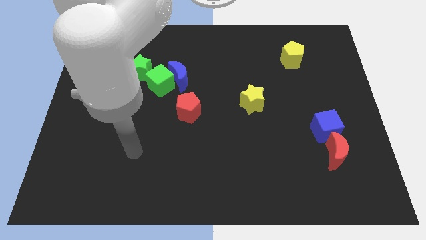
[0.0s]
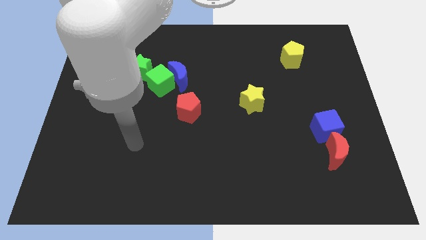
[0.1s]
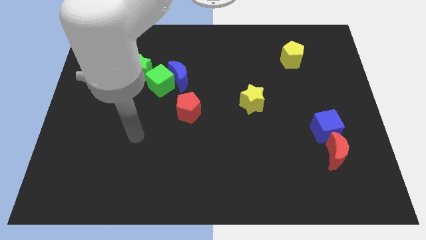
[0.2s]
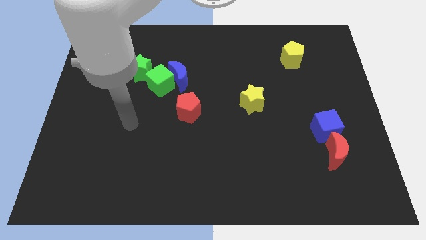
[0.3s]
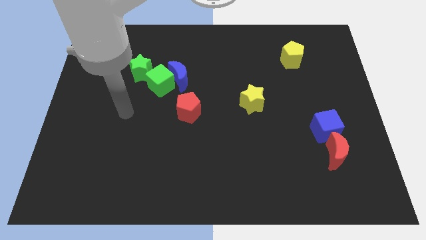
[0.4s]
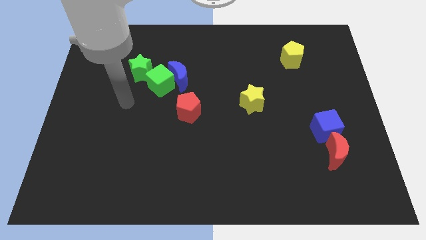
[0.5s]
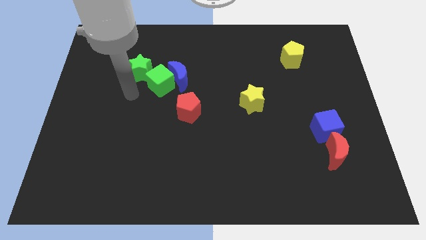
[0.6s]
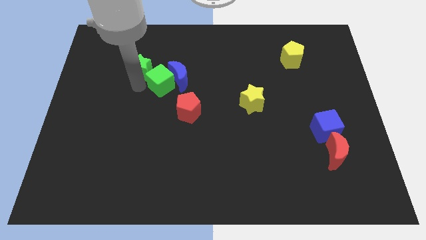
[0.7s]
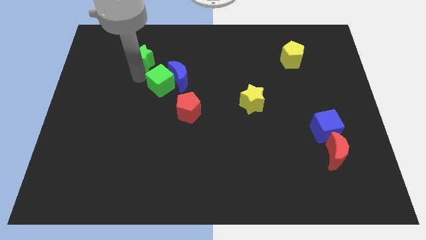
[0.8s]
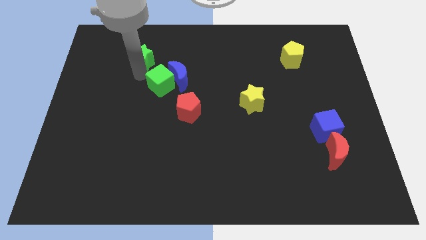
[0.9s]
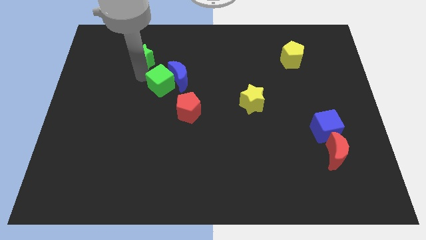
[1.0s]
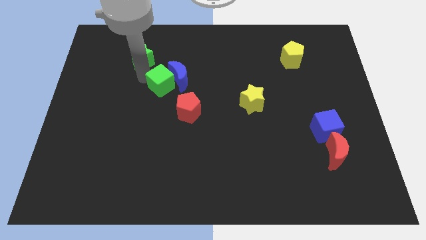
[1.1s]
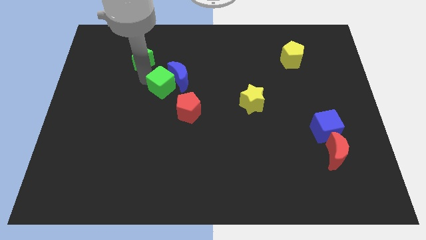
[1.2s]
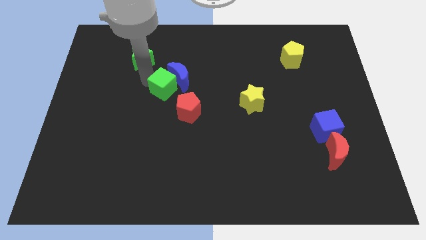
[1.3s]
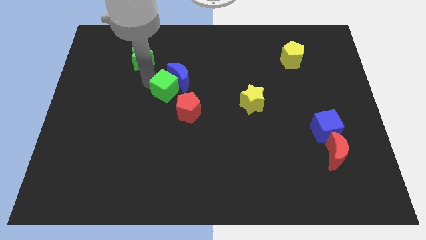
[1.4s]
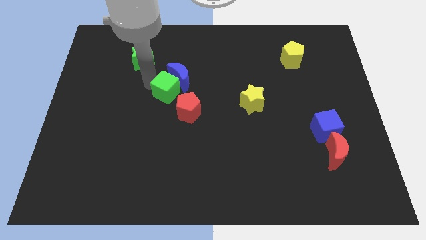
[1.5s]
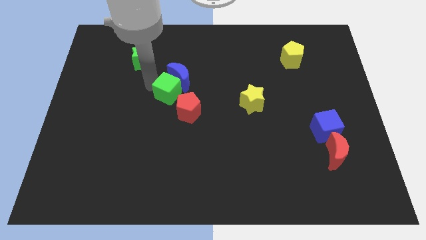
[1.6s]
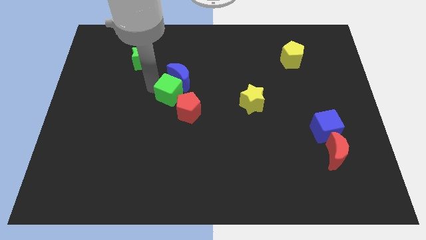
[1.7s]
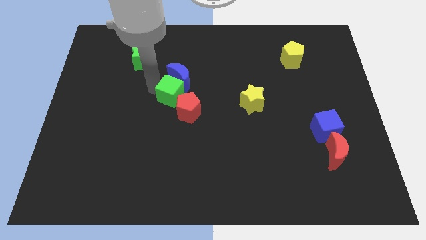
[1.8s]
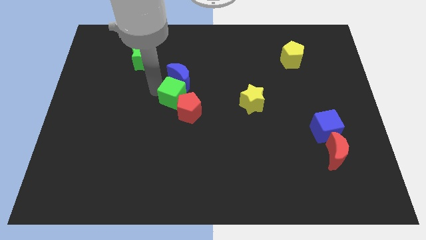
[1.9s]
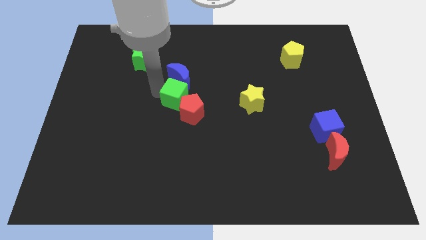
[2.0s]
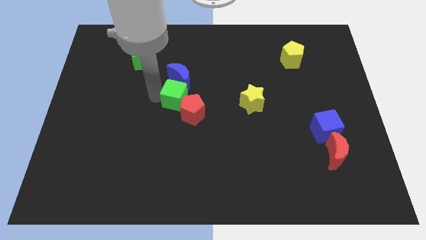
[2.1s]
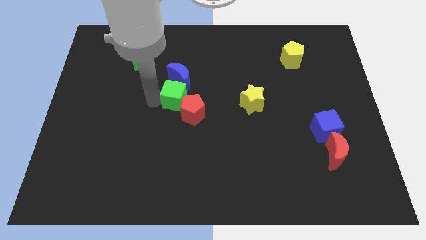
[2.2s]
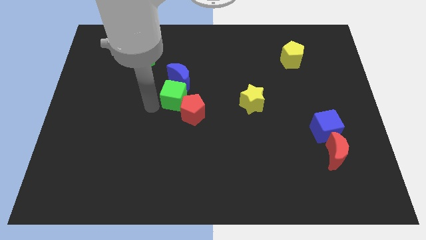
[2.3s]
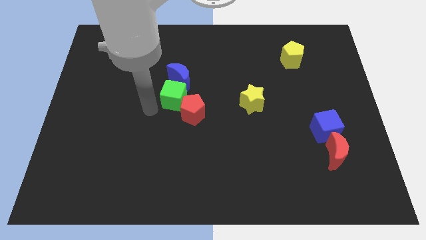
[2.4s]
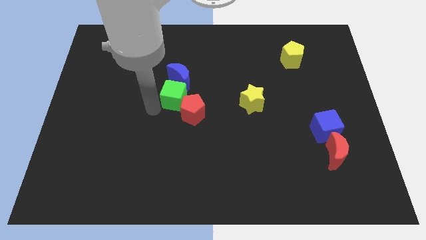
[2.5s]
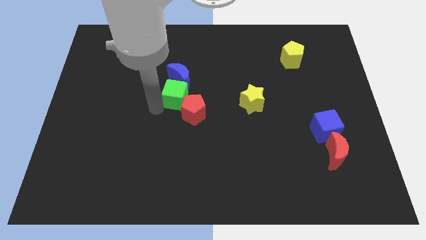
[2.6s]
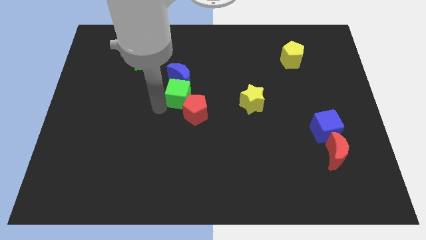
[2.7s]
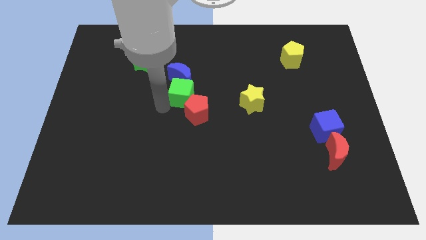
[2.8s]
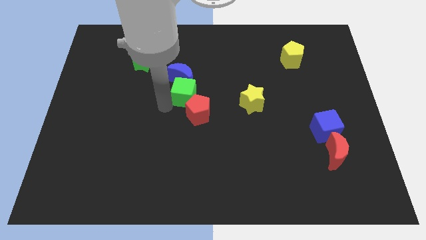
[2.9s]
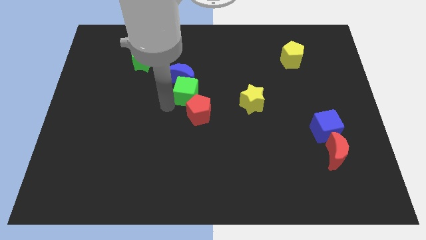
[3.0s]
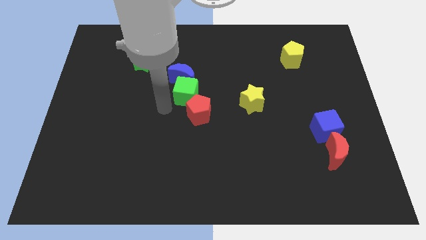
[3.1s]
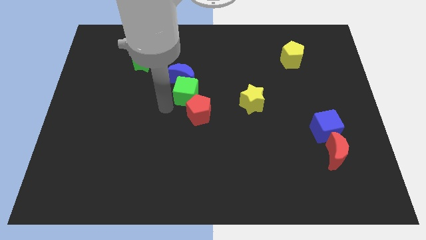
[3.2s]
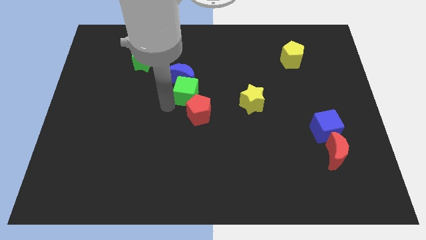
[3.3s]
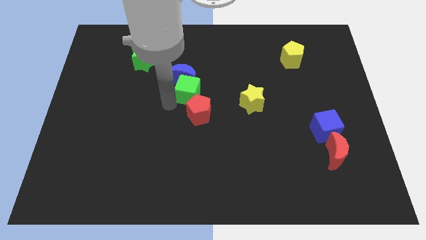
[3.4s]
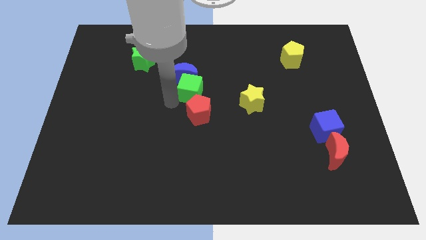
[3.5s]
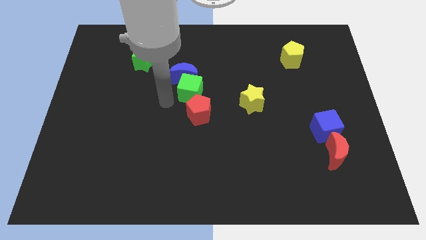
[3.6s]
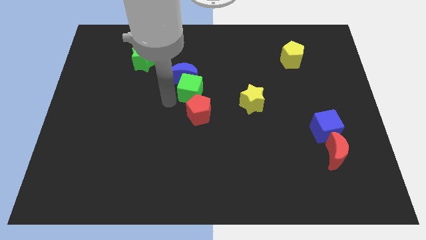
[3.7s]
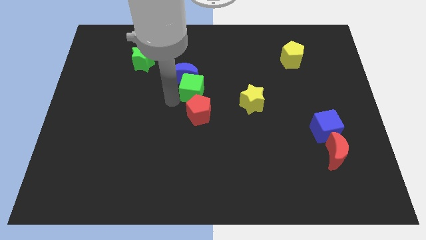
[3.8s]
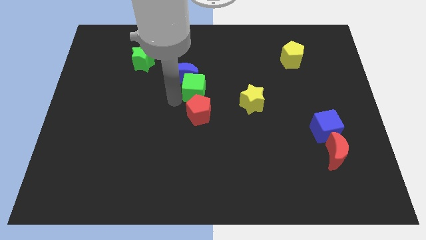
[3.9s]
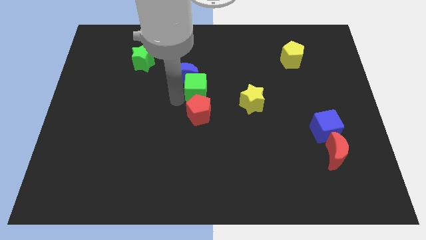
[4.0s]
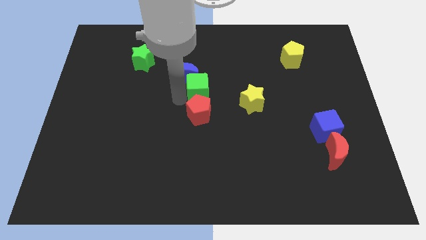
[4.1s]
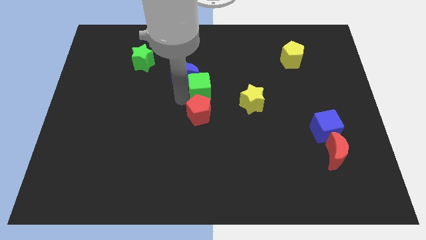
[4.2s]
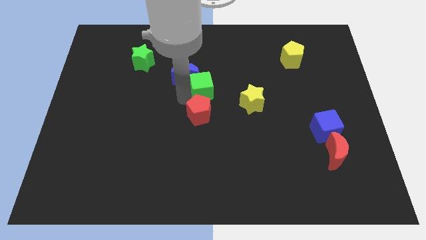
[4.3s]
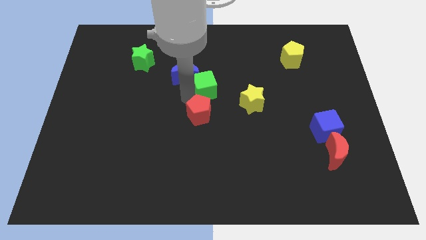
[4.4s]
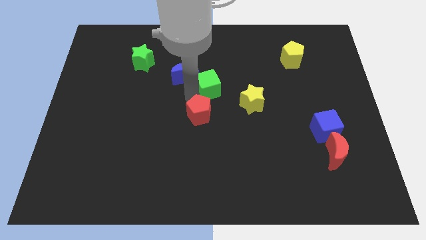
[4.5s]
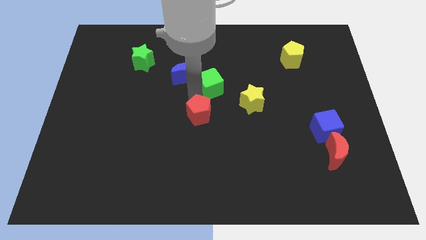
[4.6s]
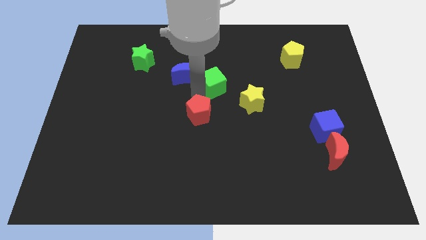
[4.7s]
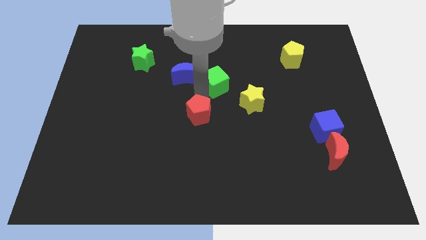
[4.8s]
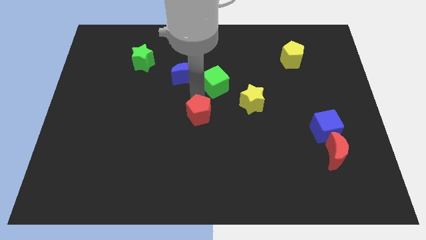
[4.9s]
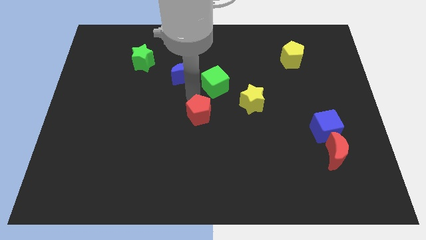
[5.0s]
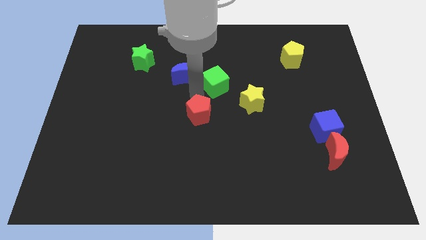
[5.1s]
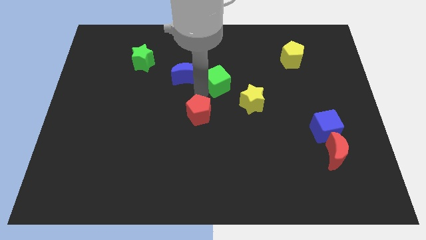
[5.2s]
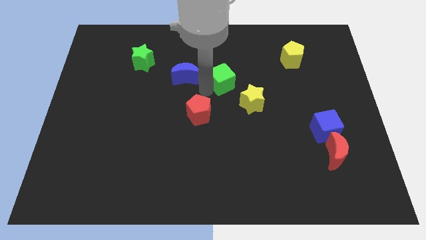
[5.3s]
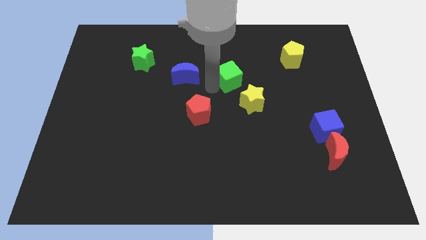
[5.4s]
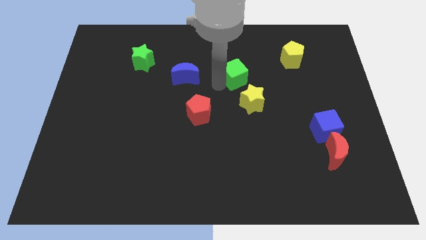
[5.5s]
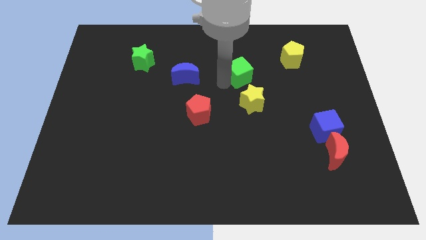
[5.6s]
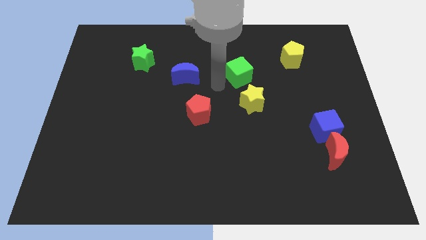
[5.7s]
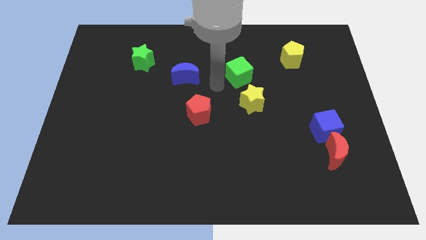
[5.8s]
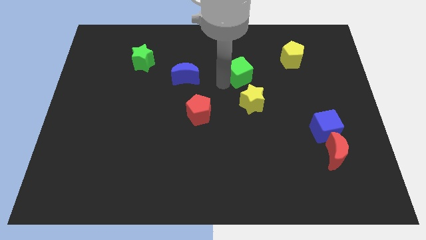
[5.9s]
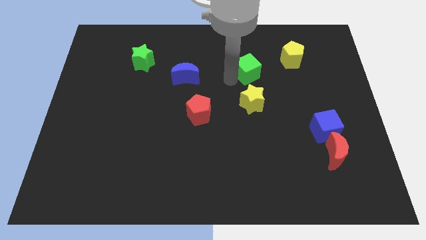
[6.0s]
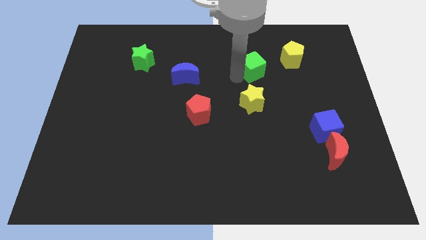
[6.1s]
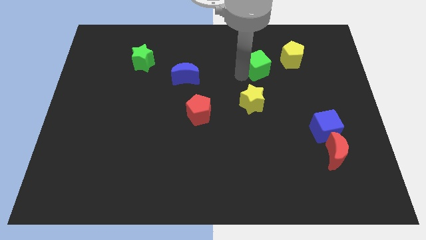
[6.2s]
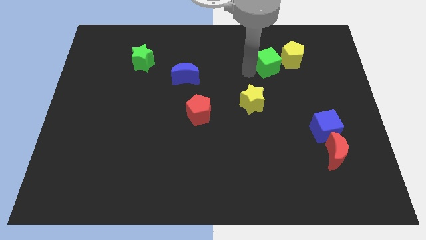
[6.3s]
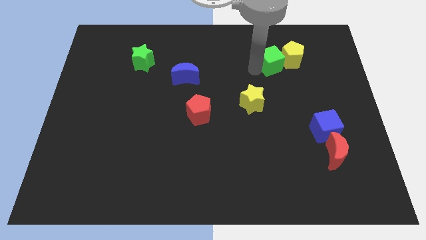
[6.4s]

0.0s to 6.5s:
move the green cube towards the yellow pentagon
